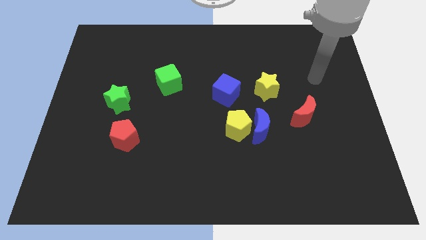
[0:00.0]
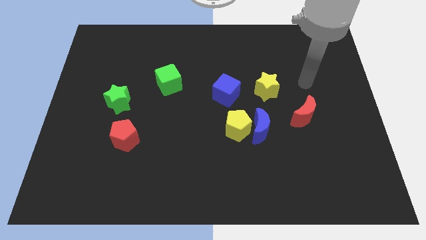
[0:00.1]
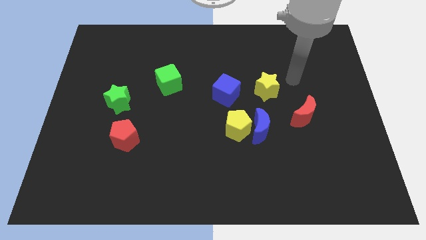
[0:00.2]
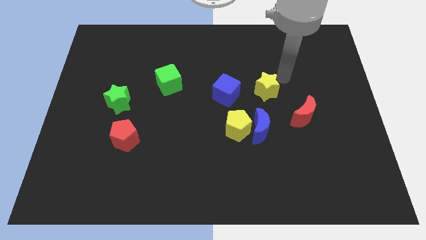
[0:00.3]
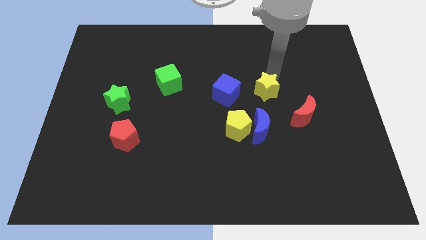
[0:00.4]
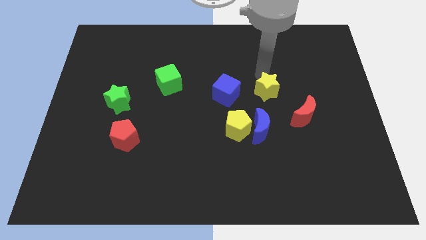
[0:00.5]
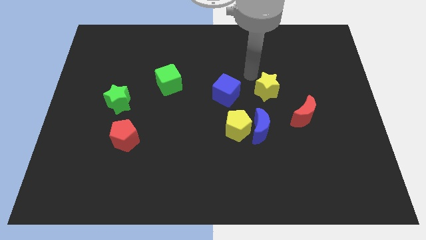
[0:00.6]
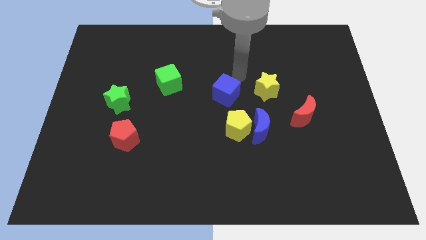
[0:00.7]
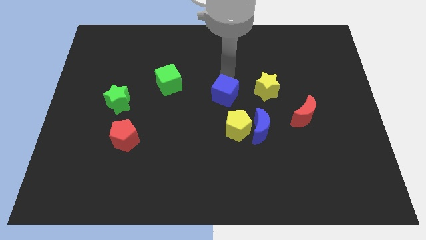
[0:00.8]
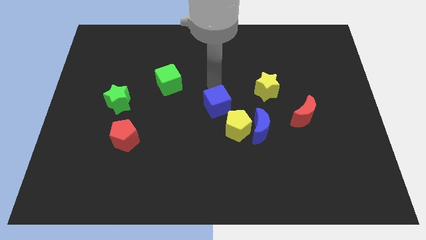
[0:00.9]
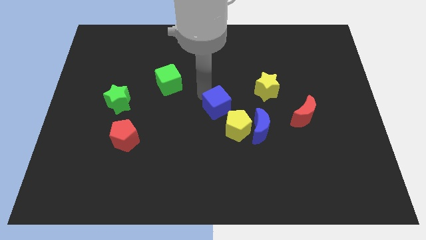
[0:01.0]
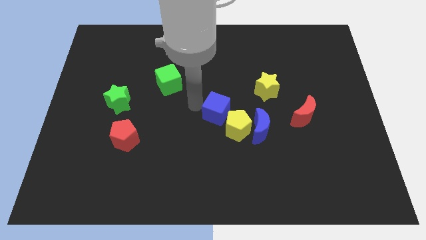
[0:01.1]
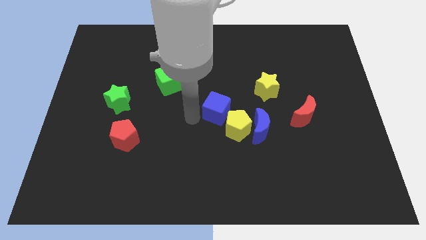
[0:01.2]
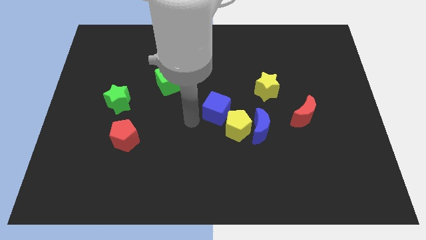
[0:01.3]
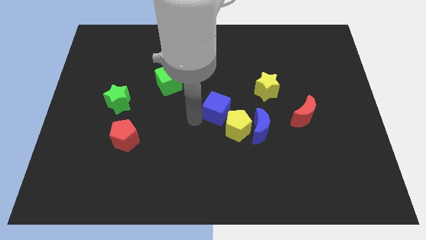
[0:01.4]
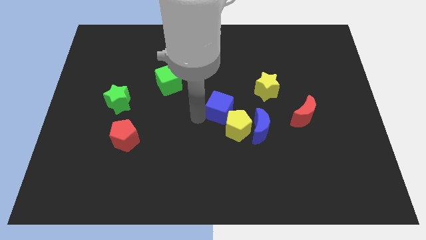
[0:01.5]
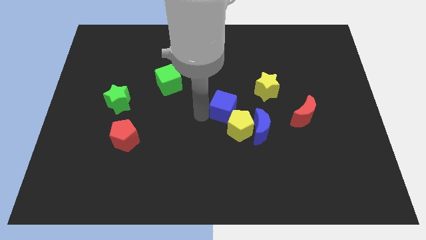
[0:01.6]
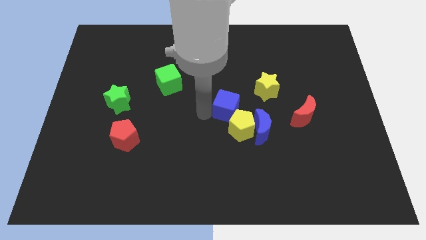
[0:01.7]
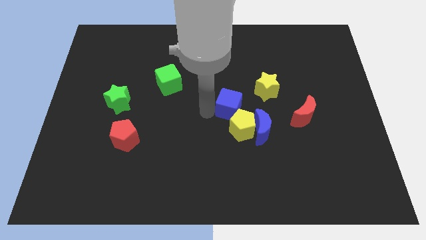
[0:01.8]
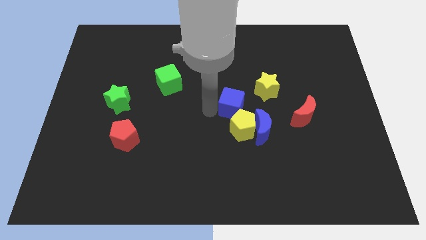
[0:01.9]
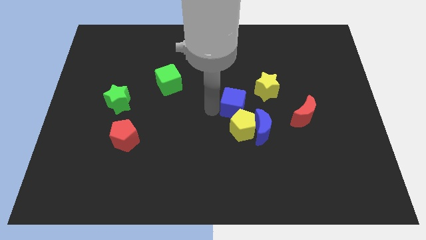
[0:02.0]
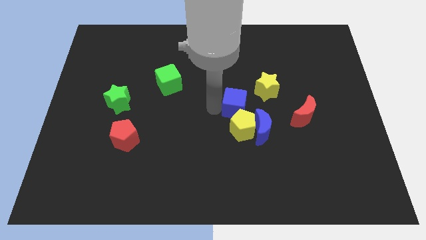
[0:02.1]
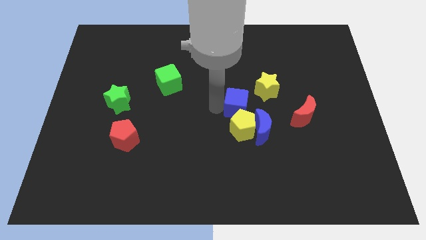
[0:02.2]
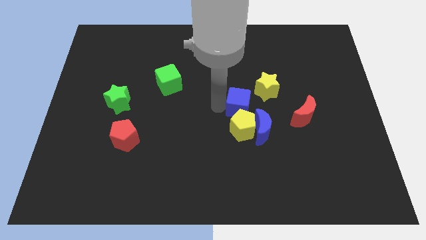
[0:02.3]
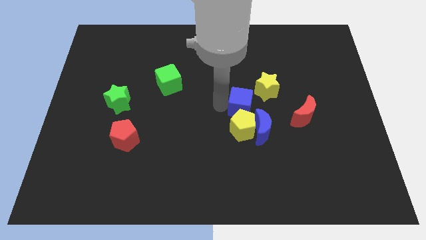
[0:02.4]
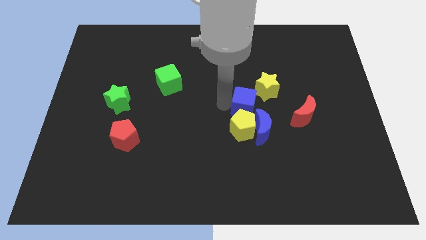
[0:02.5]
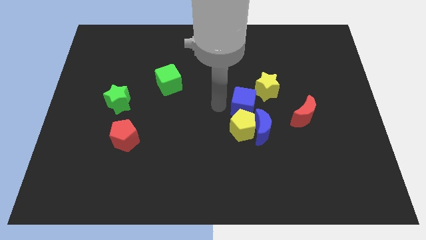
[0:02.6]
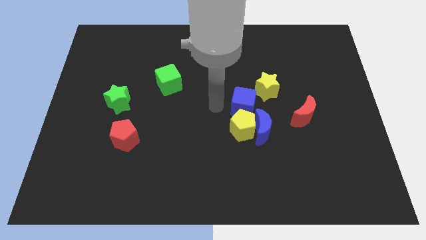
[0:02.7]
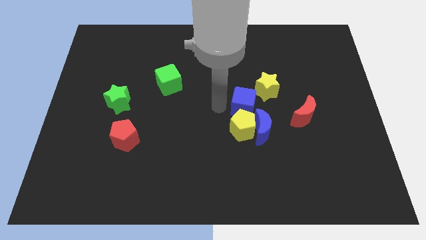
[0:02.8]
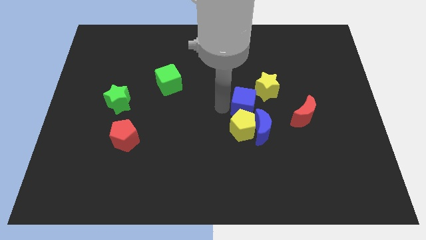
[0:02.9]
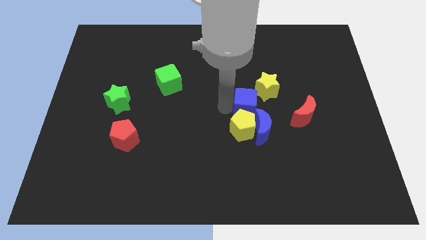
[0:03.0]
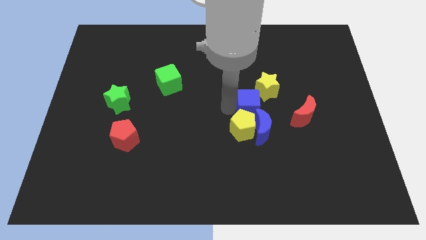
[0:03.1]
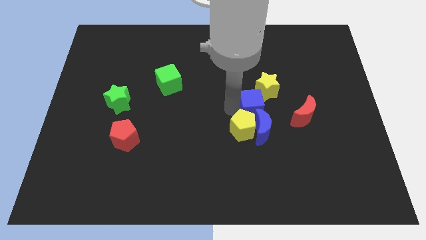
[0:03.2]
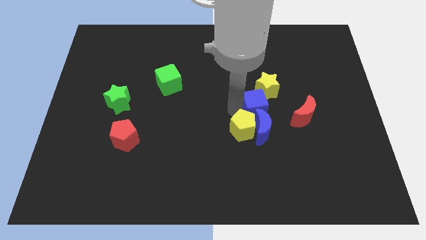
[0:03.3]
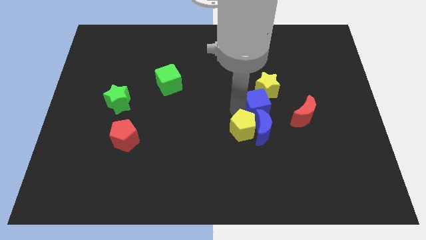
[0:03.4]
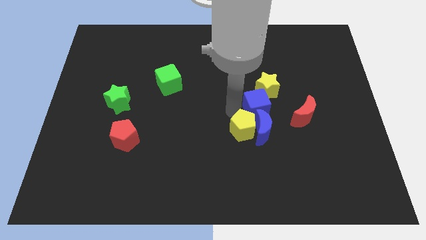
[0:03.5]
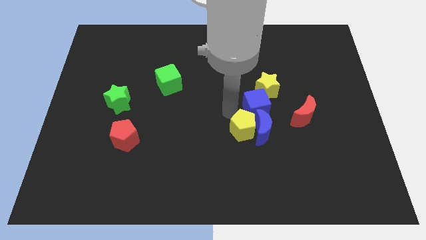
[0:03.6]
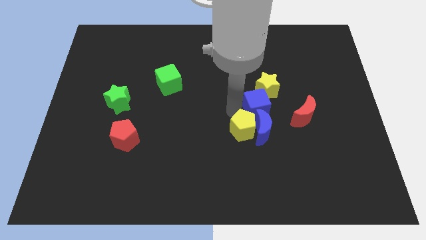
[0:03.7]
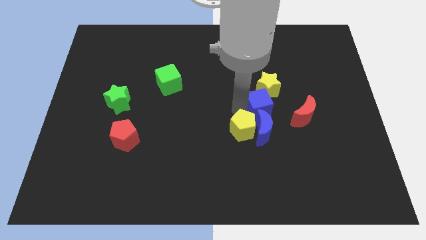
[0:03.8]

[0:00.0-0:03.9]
slightly push the blue cube right

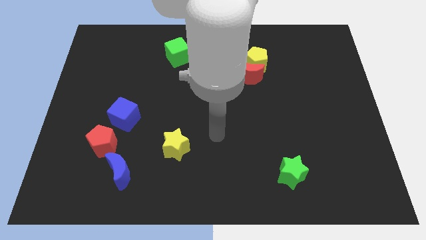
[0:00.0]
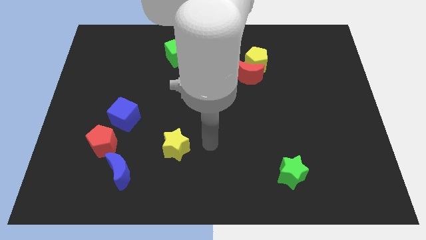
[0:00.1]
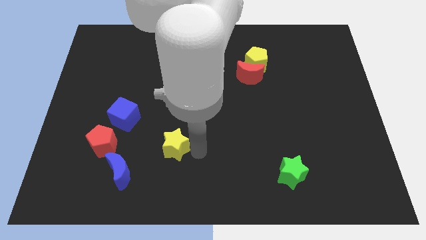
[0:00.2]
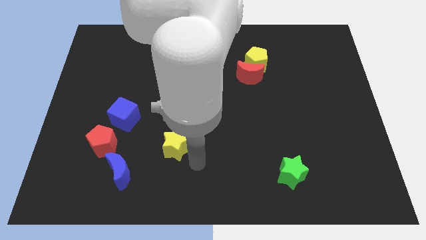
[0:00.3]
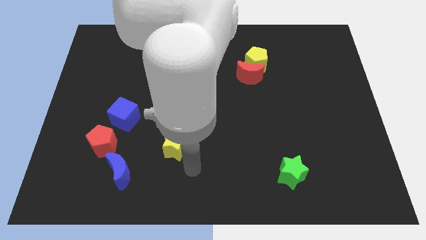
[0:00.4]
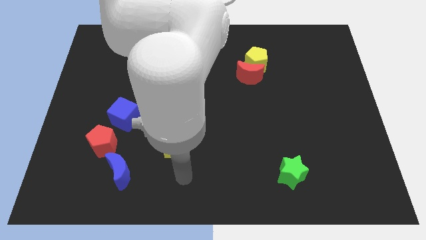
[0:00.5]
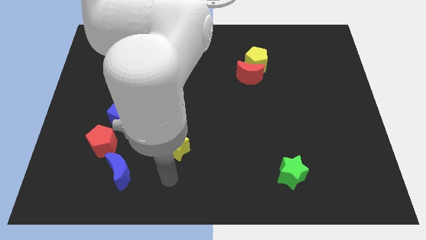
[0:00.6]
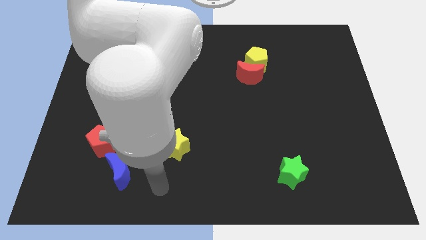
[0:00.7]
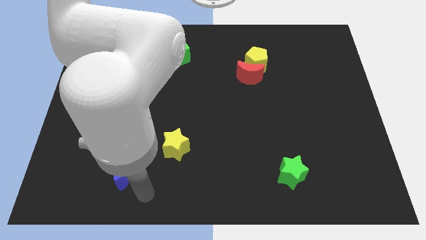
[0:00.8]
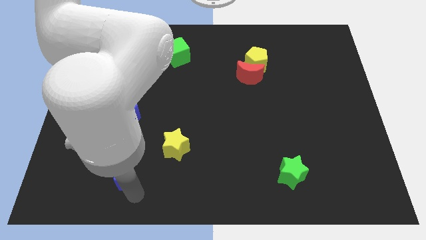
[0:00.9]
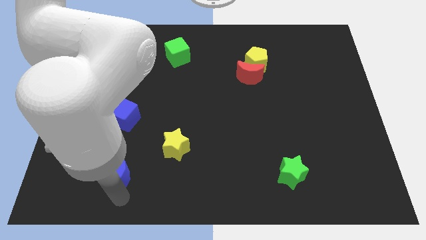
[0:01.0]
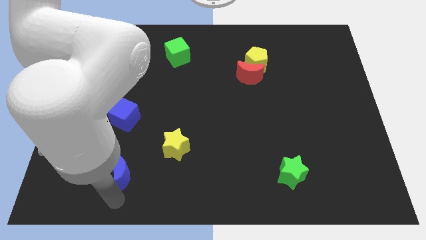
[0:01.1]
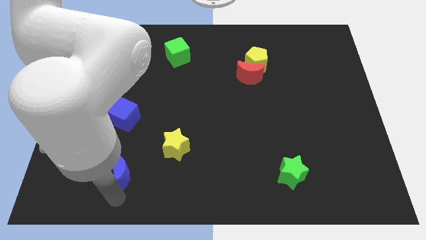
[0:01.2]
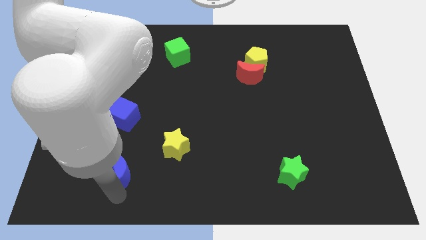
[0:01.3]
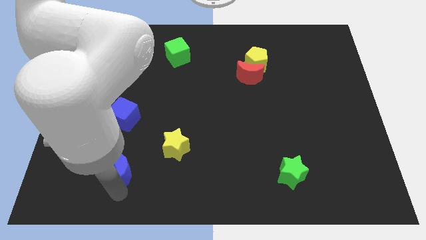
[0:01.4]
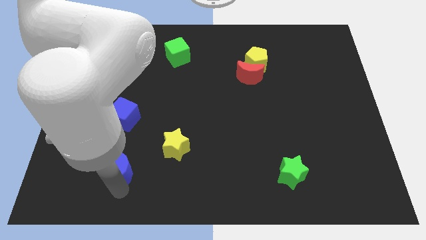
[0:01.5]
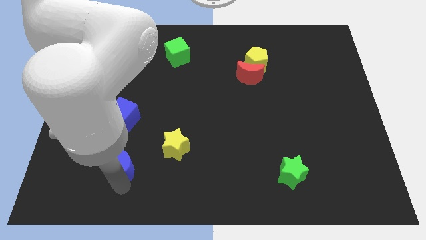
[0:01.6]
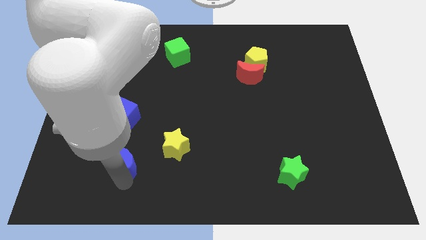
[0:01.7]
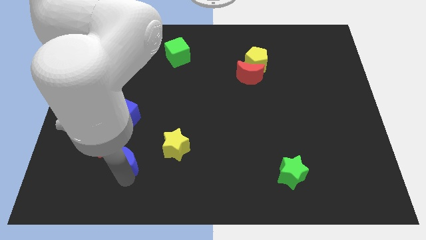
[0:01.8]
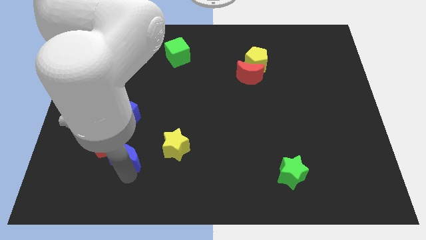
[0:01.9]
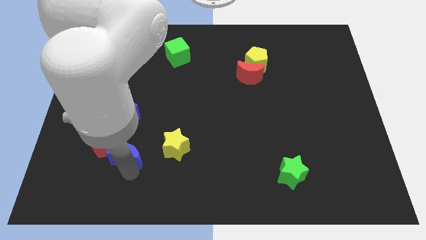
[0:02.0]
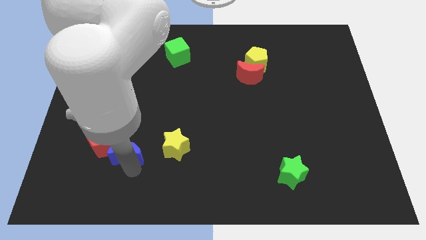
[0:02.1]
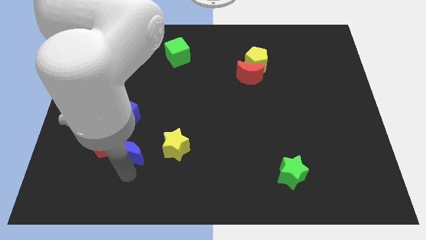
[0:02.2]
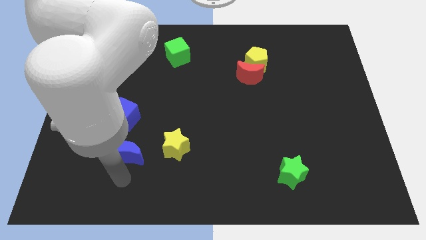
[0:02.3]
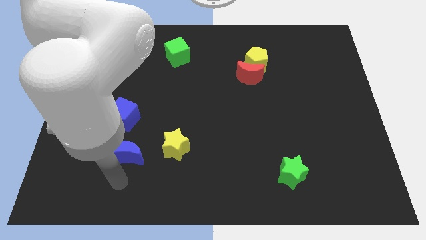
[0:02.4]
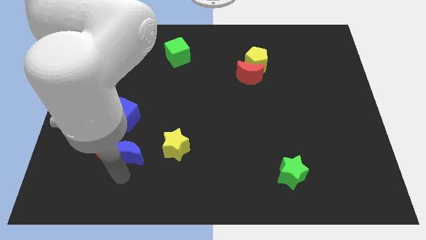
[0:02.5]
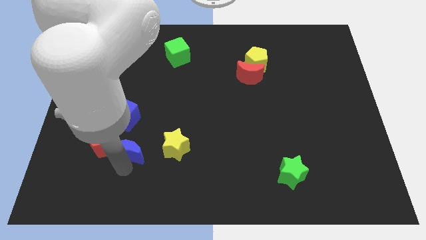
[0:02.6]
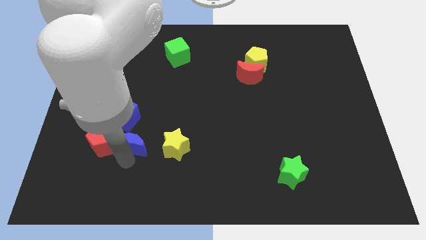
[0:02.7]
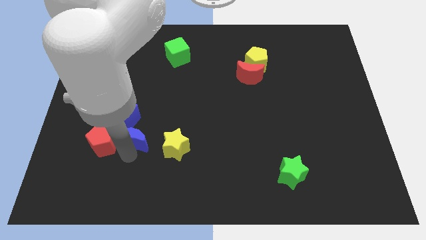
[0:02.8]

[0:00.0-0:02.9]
slide the blue moon upwards somewhat

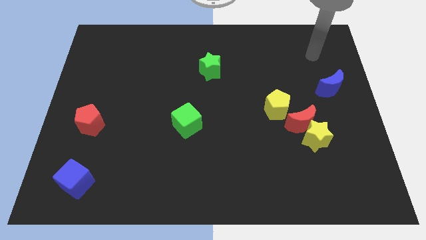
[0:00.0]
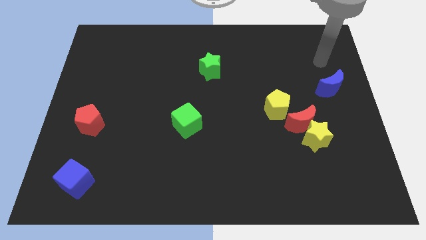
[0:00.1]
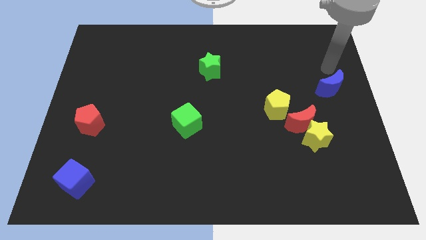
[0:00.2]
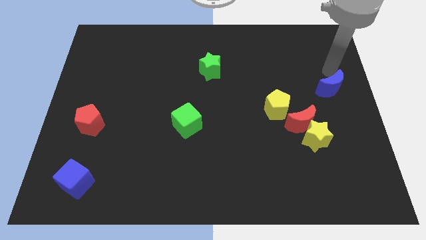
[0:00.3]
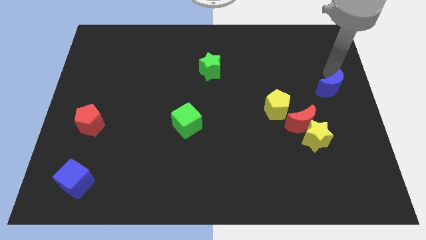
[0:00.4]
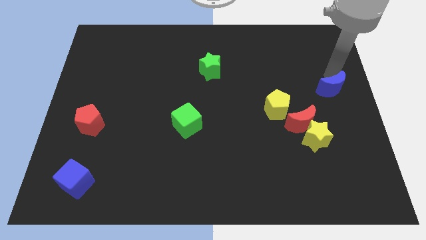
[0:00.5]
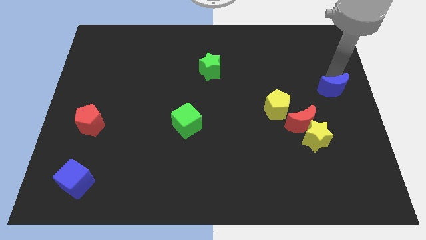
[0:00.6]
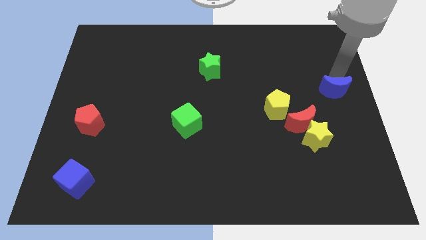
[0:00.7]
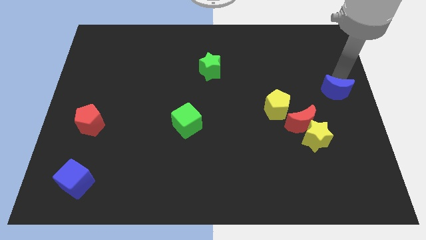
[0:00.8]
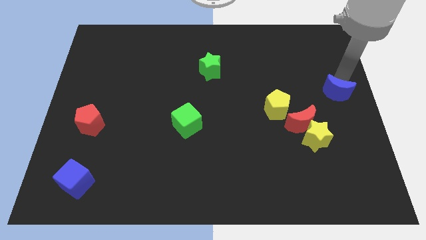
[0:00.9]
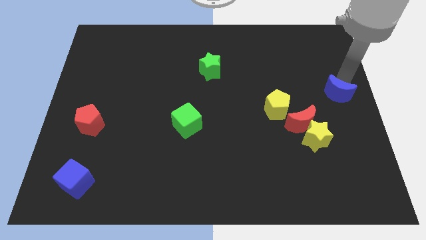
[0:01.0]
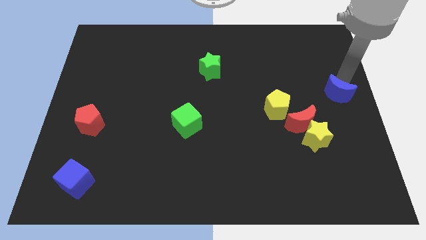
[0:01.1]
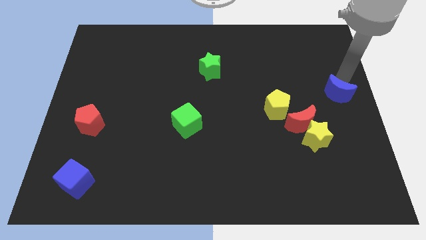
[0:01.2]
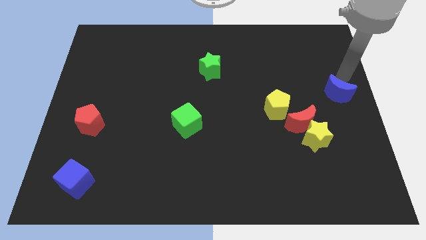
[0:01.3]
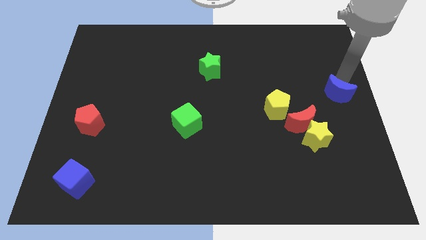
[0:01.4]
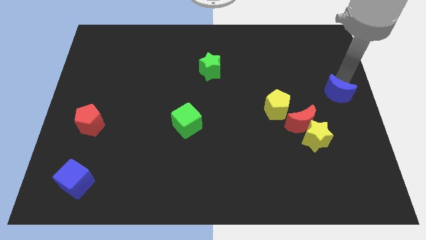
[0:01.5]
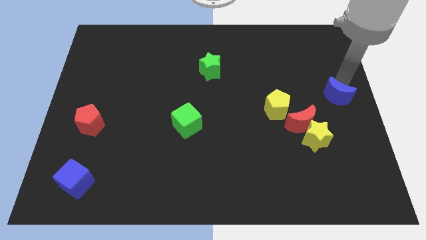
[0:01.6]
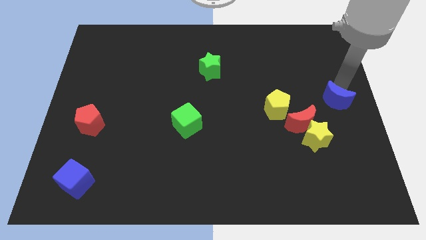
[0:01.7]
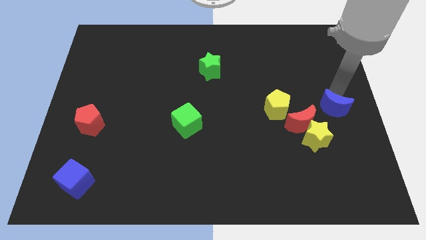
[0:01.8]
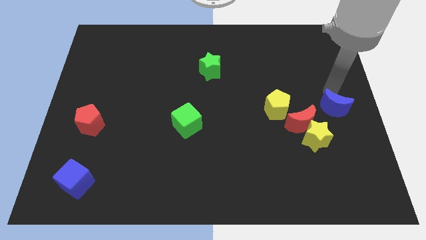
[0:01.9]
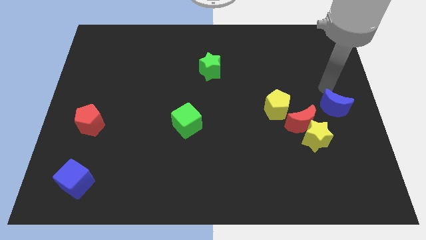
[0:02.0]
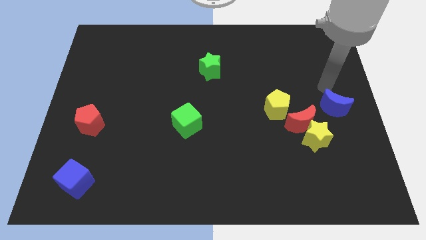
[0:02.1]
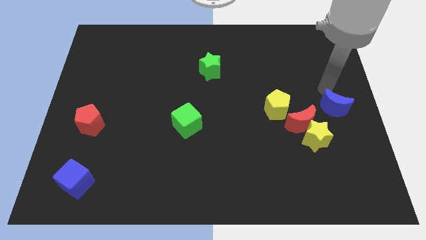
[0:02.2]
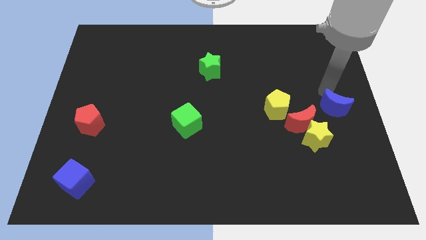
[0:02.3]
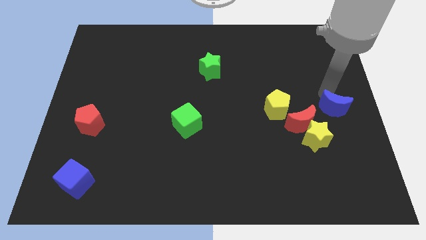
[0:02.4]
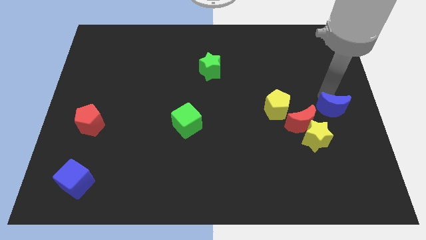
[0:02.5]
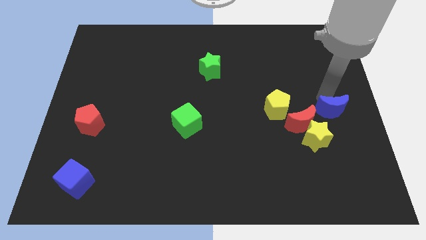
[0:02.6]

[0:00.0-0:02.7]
slightly push the blue moon down
